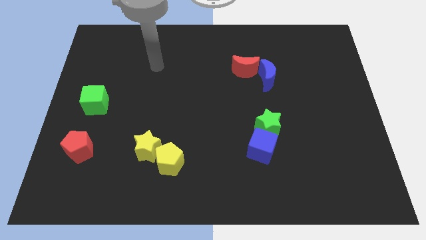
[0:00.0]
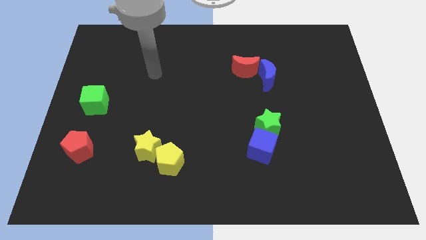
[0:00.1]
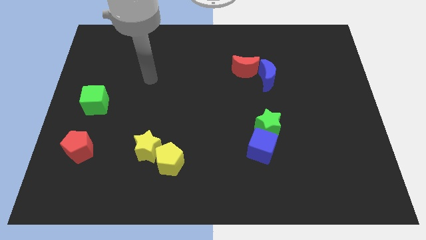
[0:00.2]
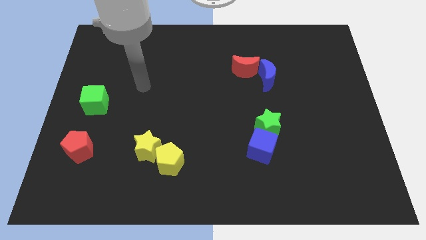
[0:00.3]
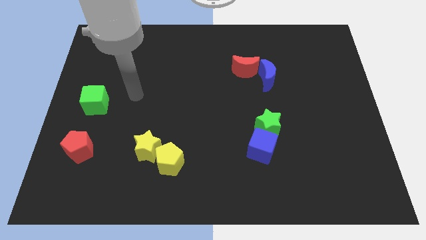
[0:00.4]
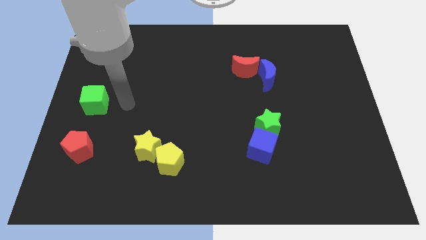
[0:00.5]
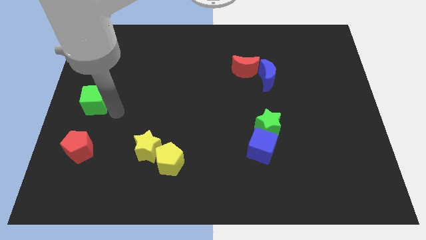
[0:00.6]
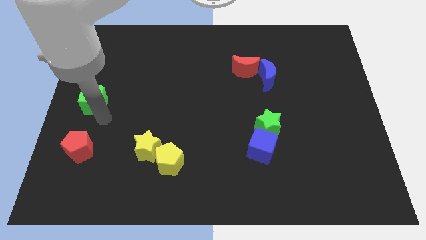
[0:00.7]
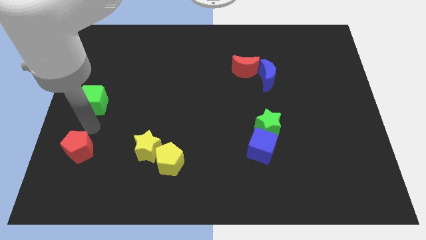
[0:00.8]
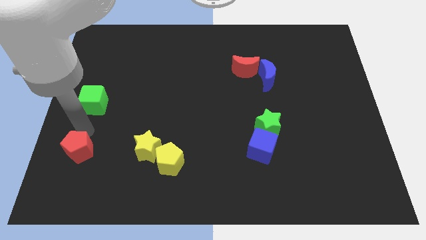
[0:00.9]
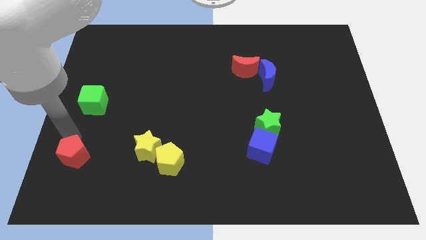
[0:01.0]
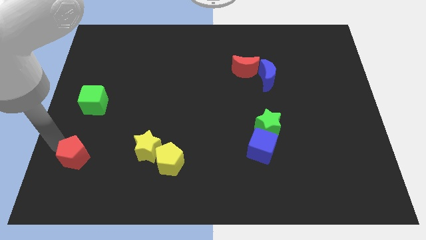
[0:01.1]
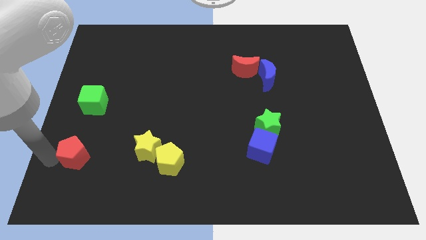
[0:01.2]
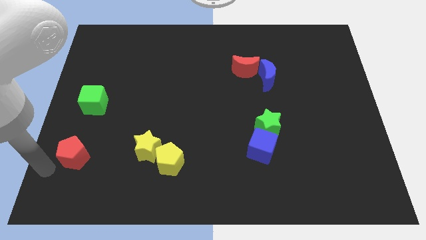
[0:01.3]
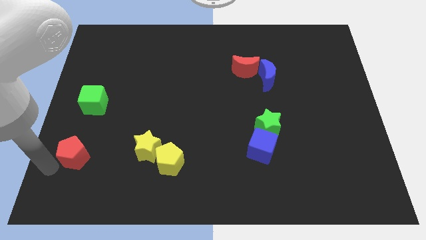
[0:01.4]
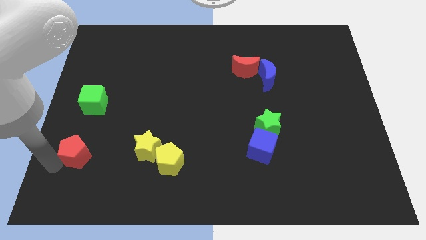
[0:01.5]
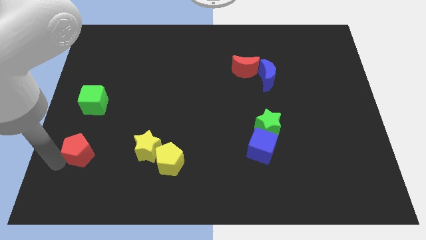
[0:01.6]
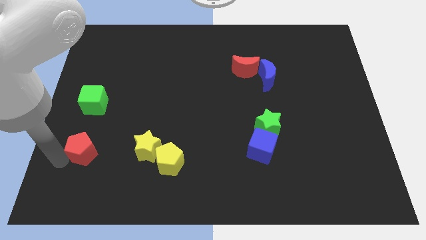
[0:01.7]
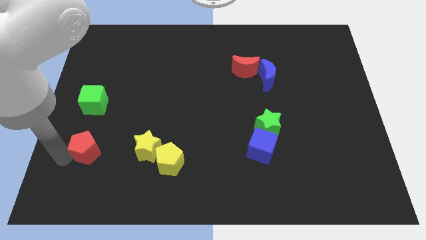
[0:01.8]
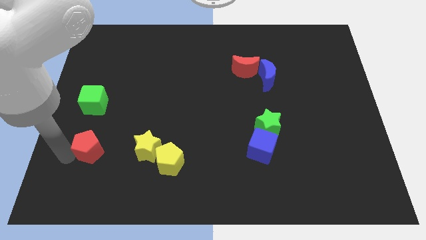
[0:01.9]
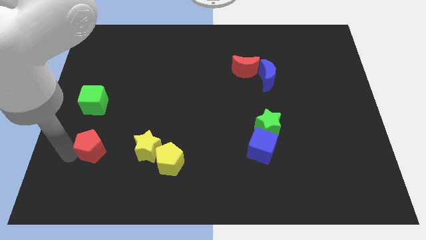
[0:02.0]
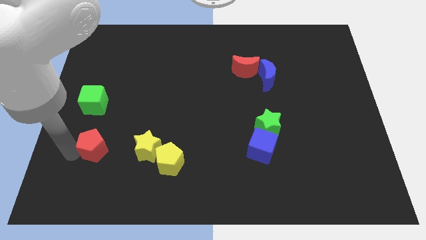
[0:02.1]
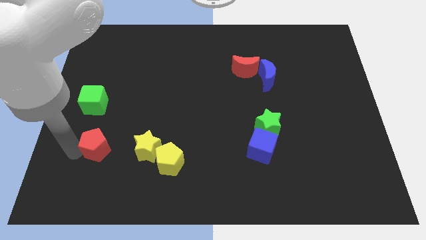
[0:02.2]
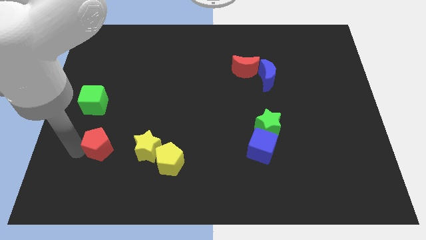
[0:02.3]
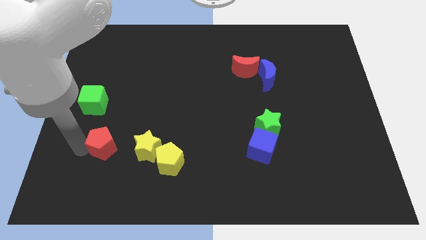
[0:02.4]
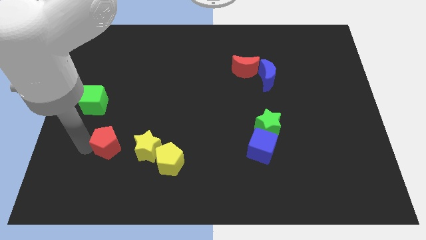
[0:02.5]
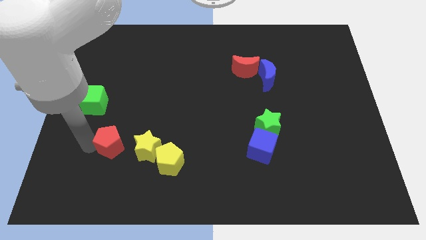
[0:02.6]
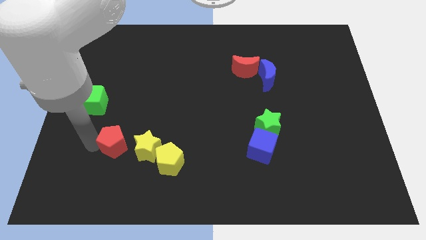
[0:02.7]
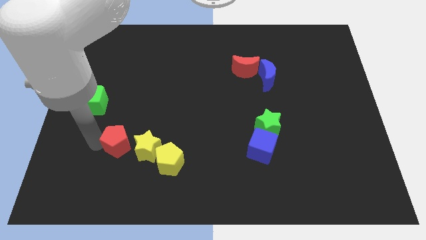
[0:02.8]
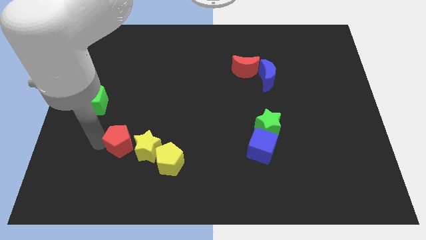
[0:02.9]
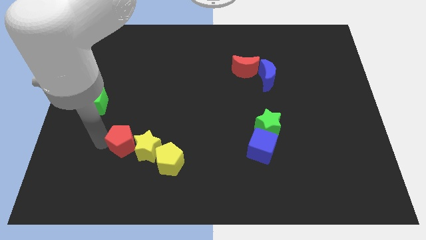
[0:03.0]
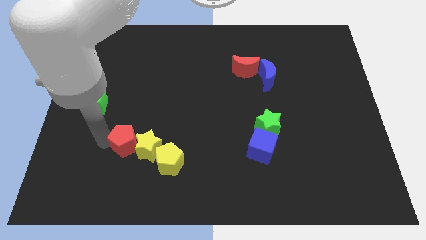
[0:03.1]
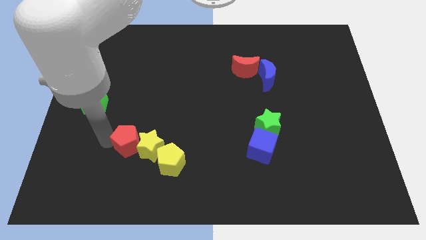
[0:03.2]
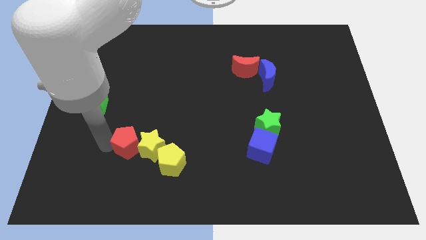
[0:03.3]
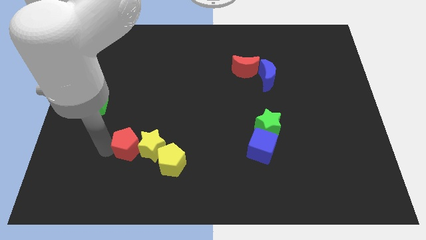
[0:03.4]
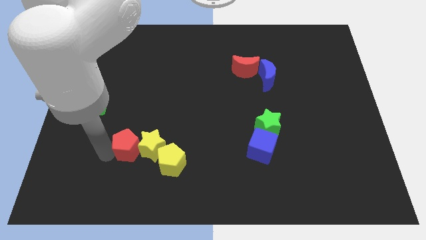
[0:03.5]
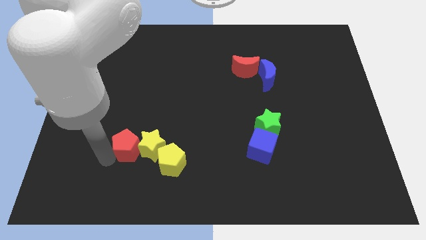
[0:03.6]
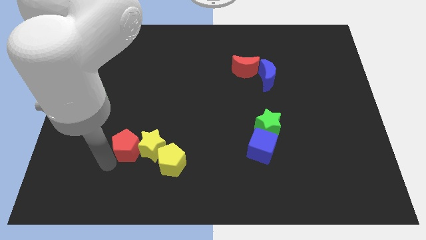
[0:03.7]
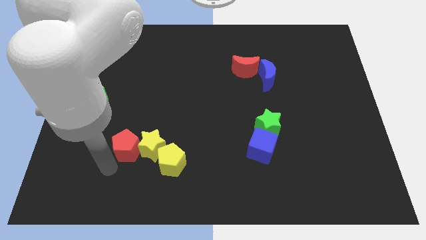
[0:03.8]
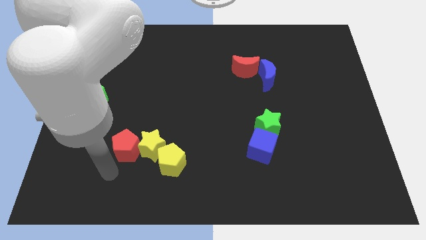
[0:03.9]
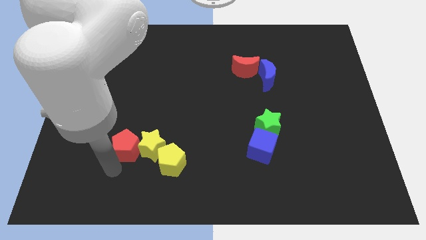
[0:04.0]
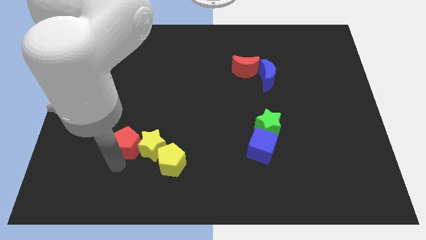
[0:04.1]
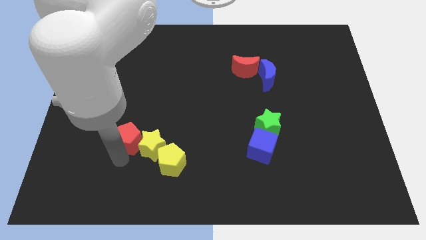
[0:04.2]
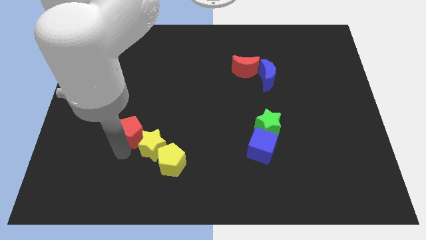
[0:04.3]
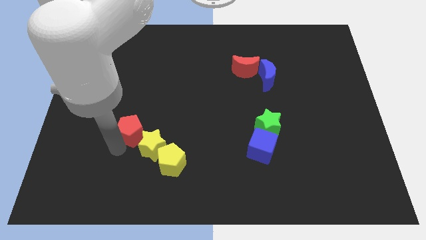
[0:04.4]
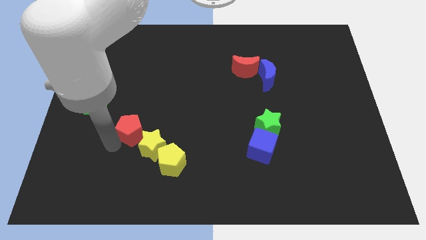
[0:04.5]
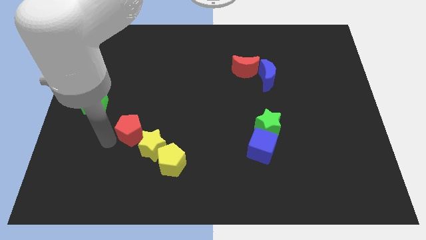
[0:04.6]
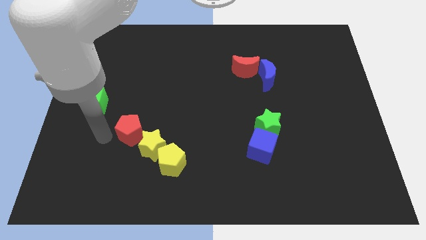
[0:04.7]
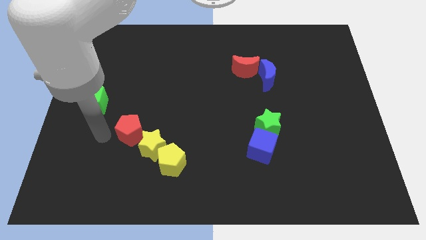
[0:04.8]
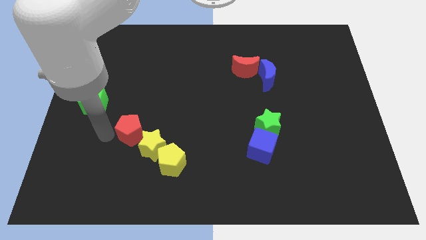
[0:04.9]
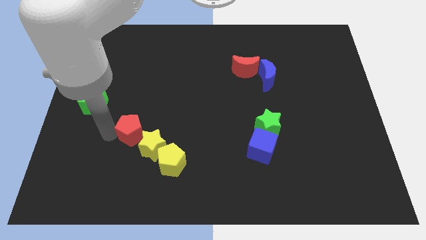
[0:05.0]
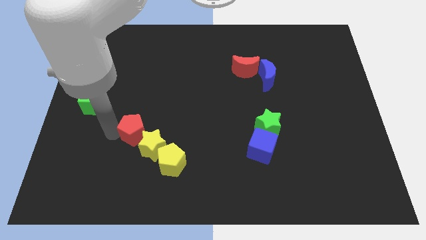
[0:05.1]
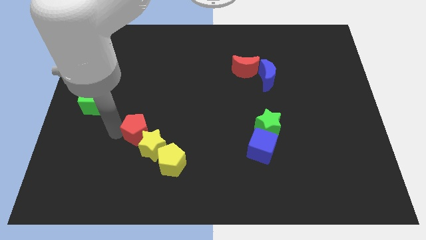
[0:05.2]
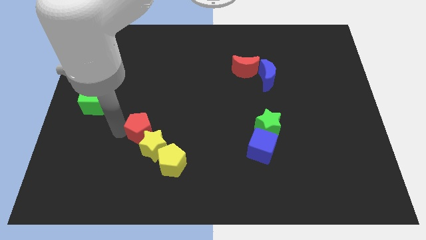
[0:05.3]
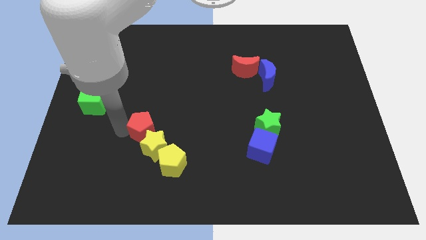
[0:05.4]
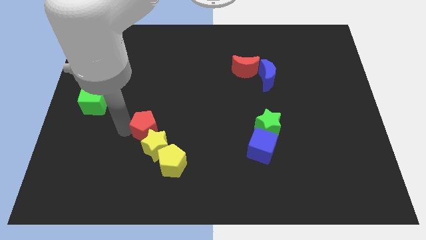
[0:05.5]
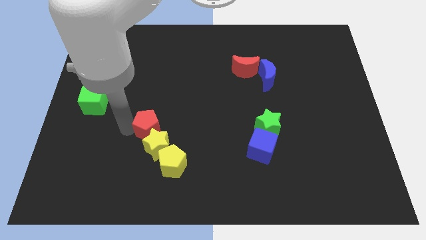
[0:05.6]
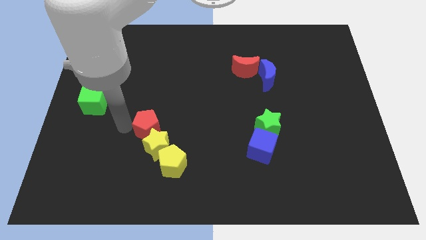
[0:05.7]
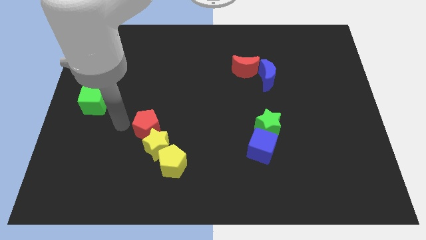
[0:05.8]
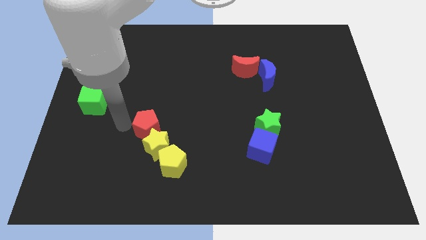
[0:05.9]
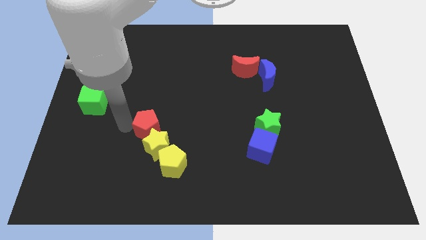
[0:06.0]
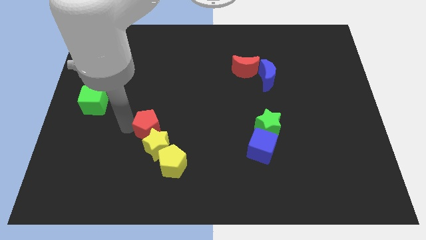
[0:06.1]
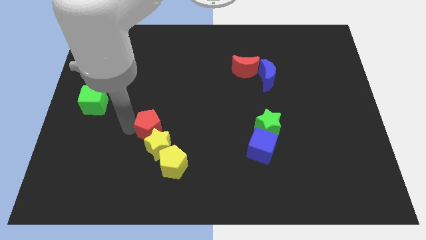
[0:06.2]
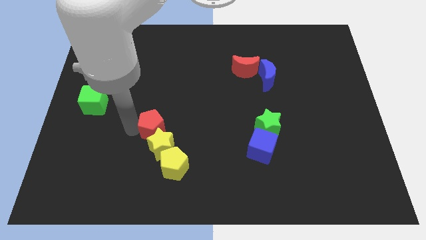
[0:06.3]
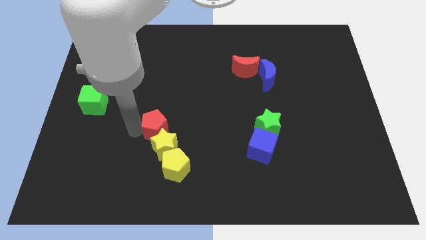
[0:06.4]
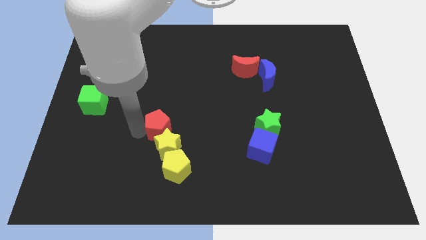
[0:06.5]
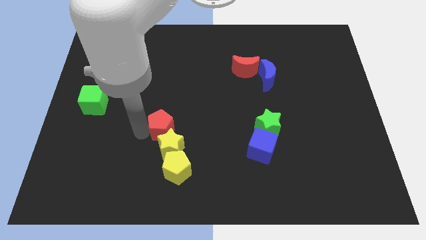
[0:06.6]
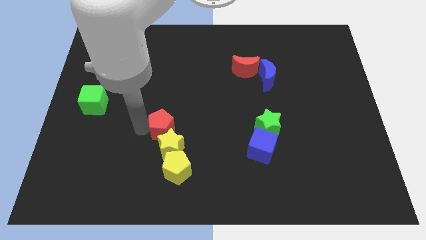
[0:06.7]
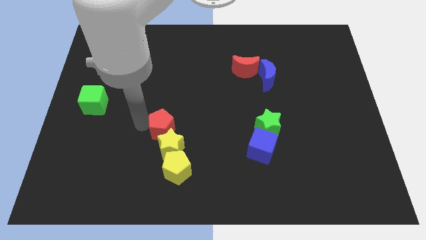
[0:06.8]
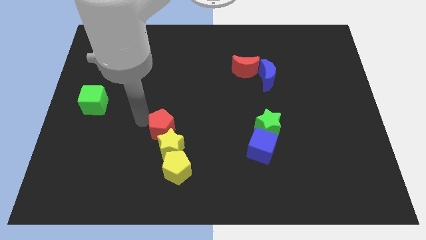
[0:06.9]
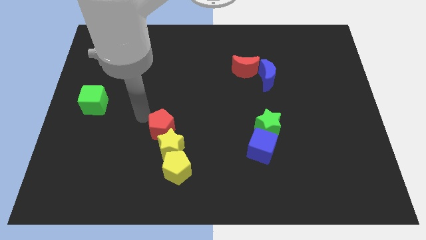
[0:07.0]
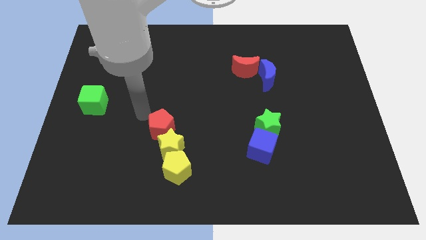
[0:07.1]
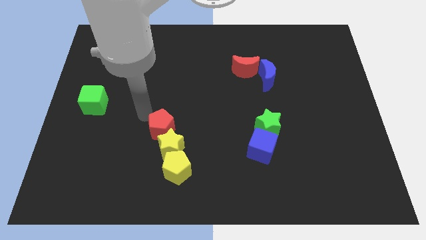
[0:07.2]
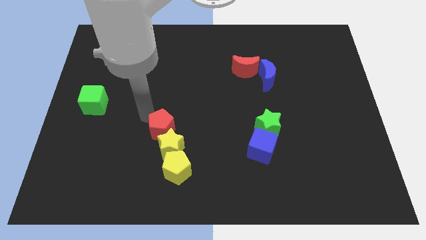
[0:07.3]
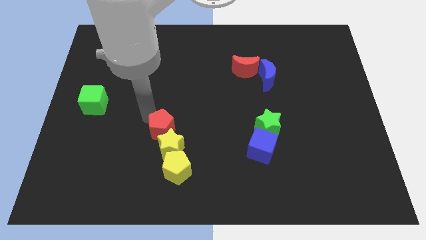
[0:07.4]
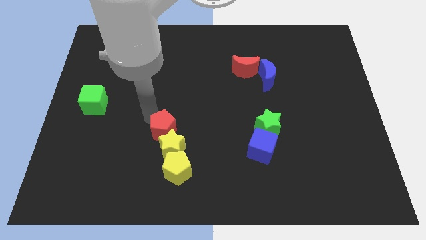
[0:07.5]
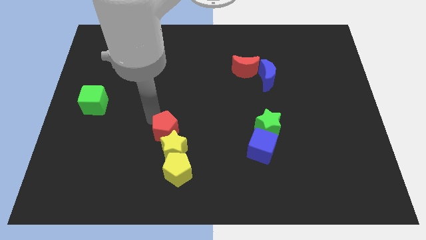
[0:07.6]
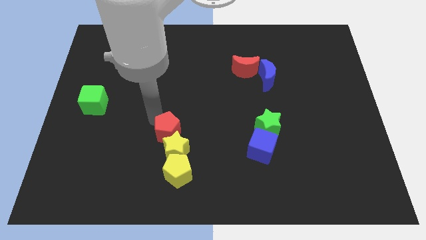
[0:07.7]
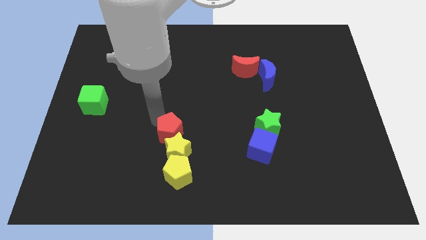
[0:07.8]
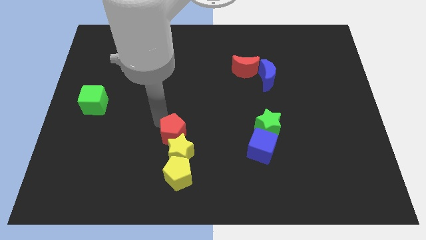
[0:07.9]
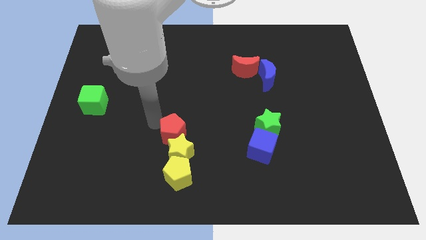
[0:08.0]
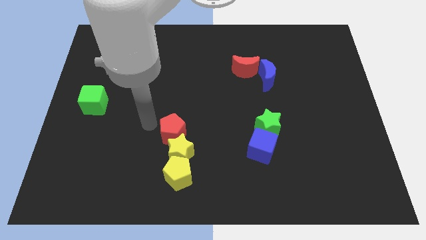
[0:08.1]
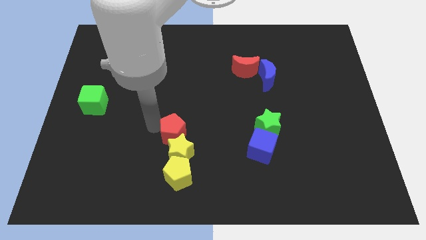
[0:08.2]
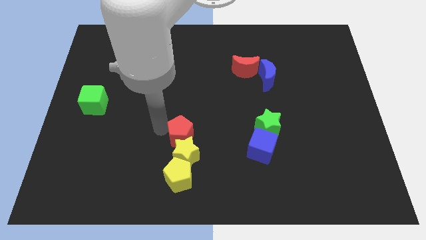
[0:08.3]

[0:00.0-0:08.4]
push the red pentagon right
